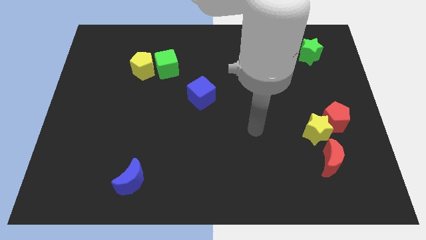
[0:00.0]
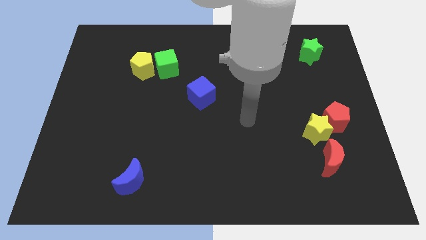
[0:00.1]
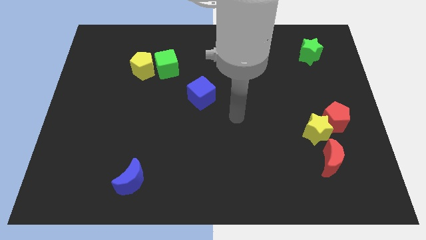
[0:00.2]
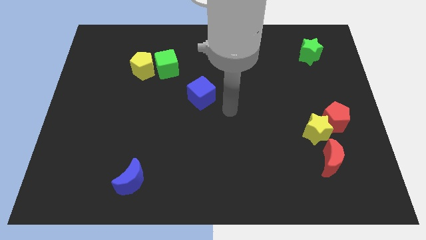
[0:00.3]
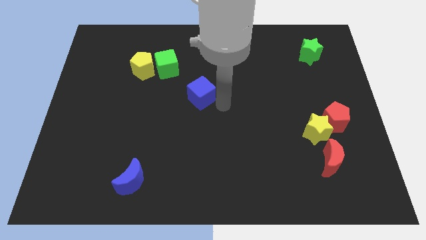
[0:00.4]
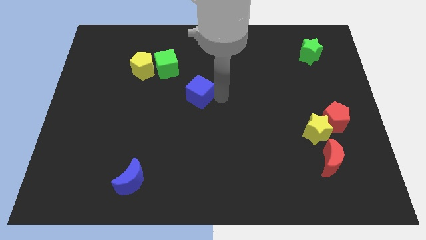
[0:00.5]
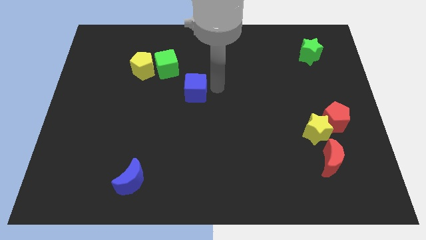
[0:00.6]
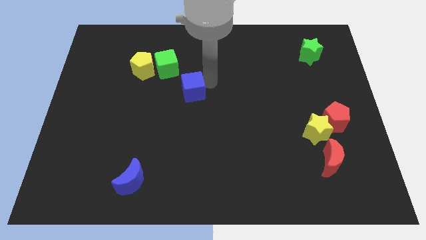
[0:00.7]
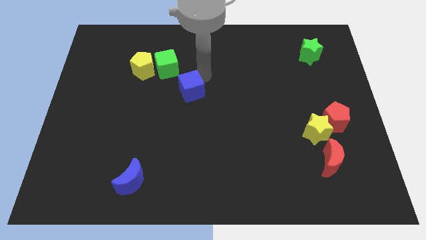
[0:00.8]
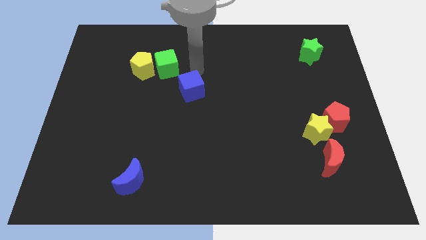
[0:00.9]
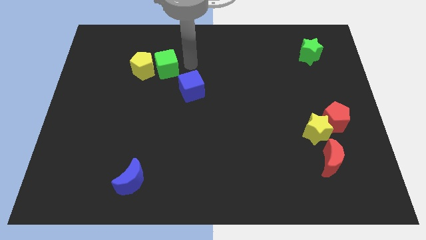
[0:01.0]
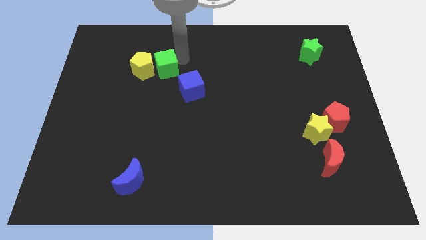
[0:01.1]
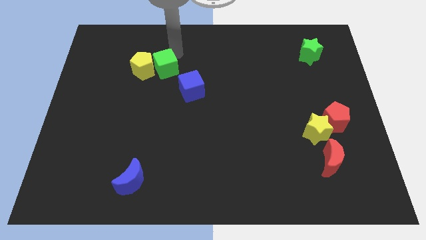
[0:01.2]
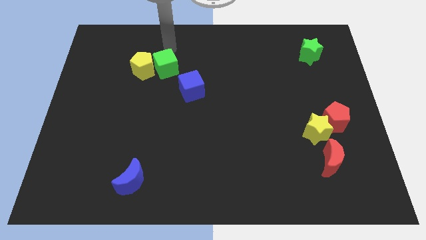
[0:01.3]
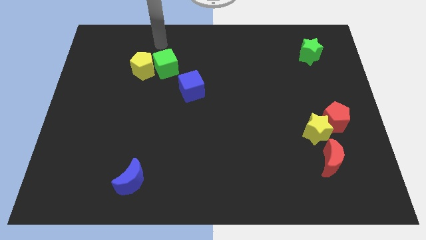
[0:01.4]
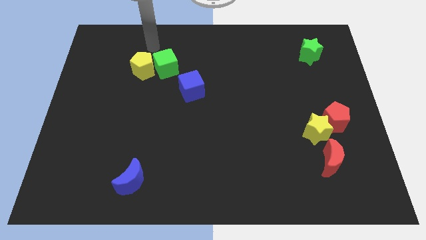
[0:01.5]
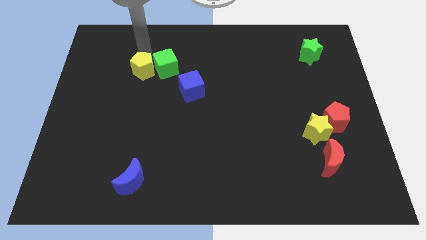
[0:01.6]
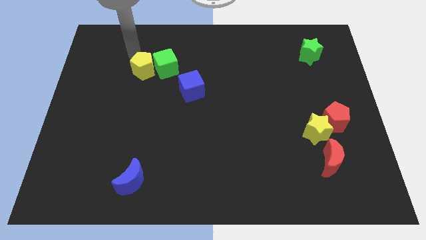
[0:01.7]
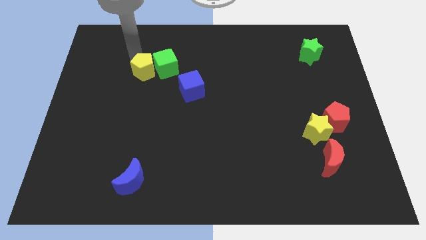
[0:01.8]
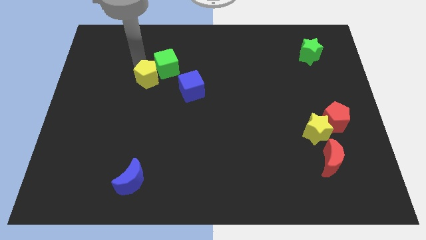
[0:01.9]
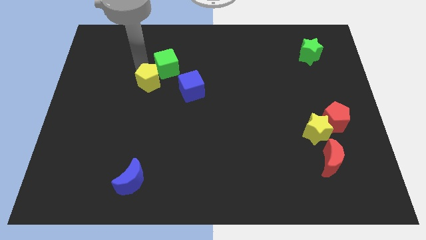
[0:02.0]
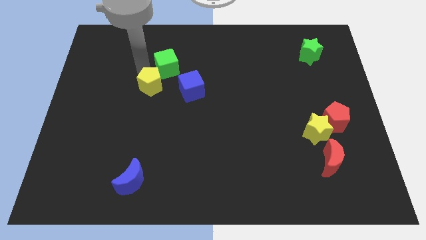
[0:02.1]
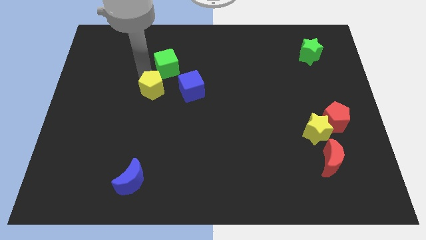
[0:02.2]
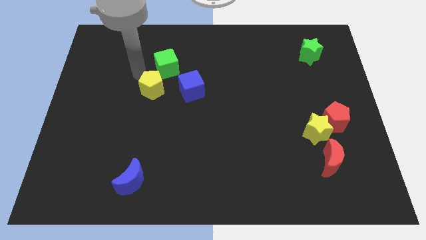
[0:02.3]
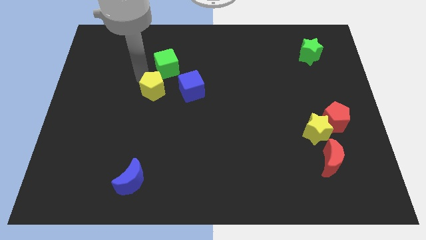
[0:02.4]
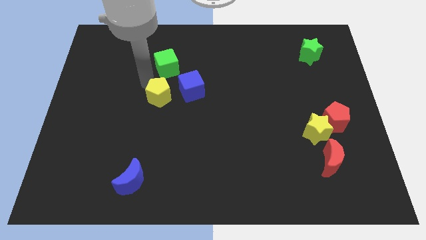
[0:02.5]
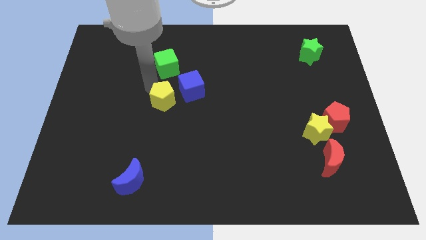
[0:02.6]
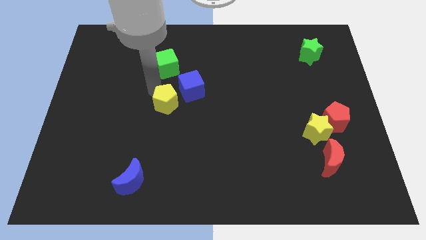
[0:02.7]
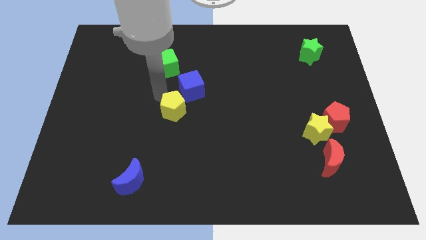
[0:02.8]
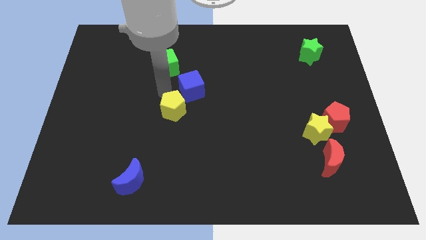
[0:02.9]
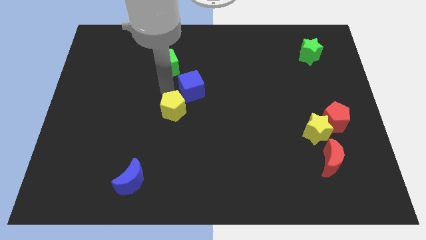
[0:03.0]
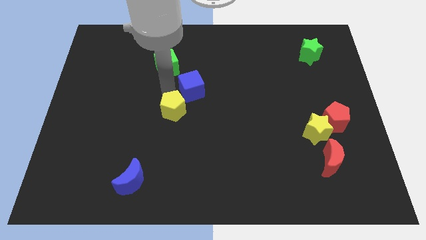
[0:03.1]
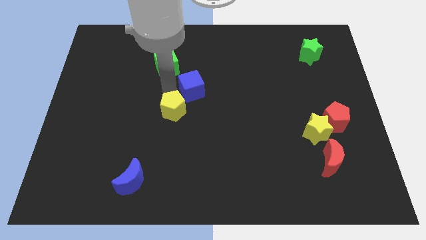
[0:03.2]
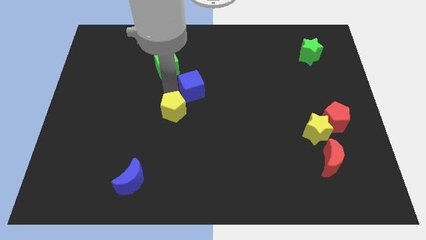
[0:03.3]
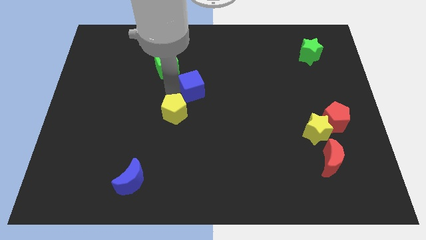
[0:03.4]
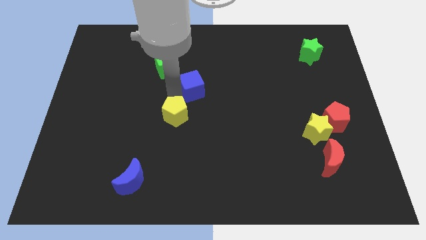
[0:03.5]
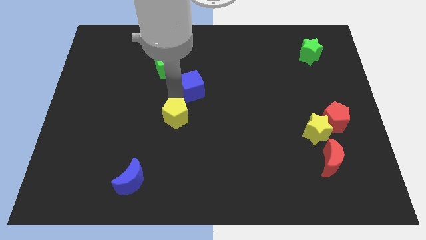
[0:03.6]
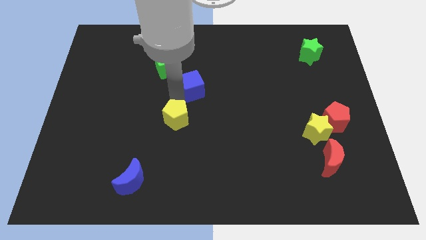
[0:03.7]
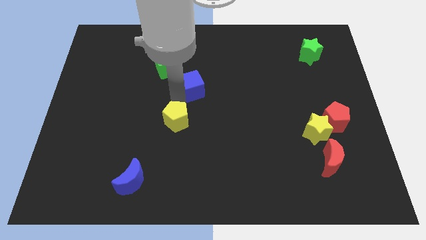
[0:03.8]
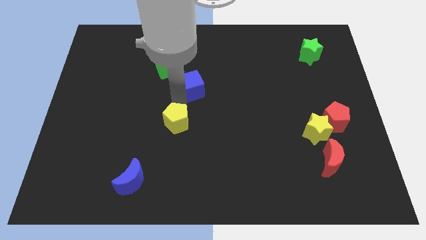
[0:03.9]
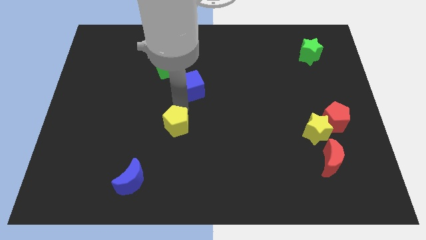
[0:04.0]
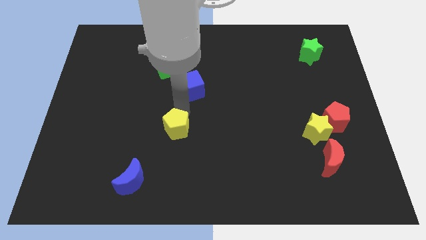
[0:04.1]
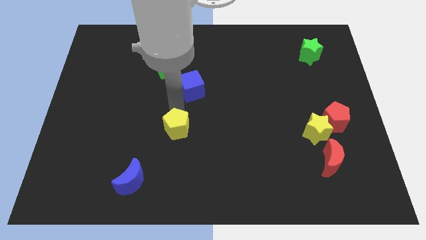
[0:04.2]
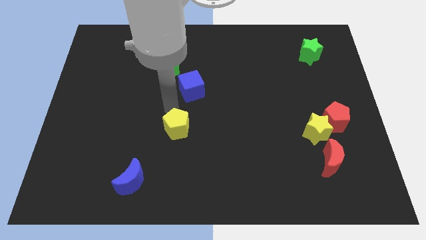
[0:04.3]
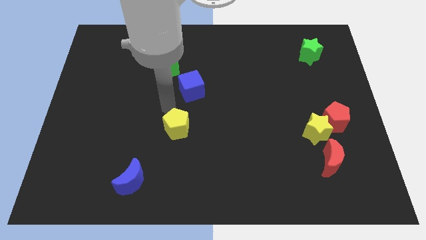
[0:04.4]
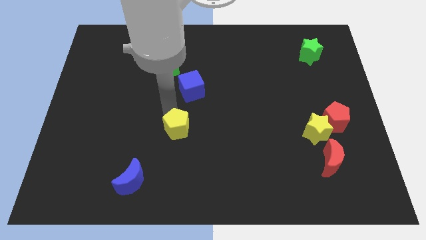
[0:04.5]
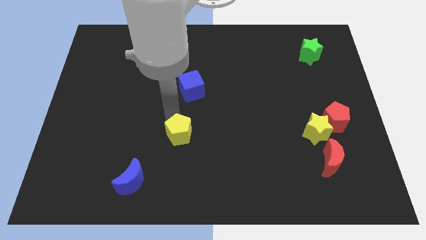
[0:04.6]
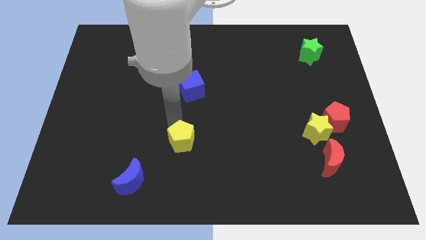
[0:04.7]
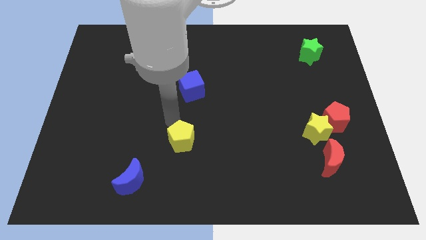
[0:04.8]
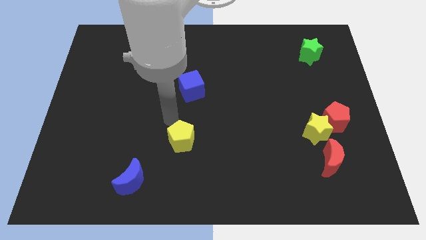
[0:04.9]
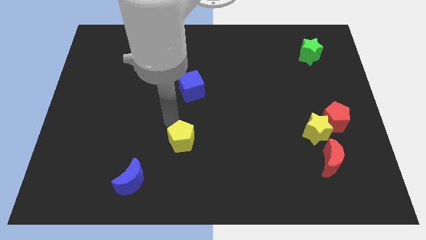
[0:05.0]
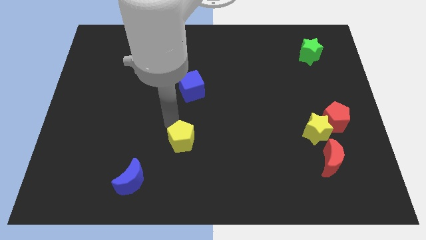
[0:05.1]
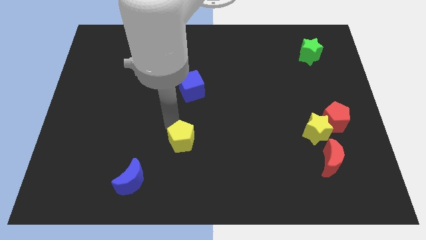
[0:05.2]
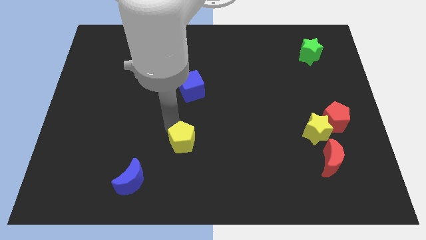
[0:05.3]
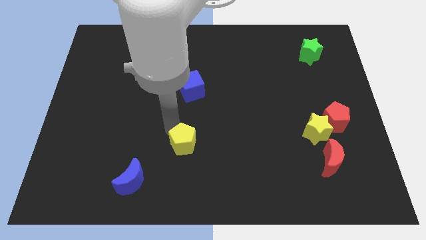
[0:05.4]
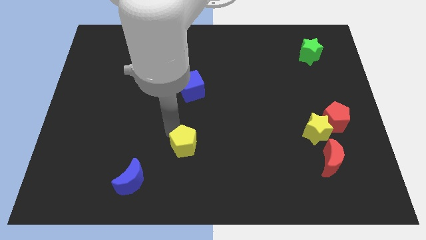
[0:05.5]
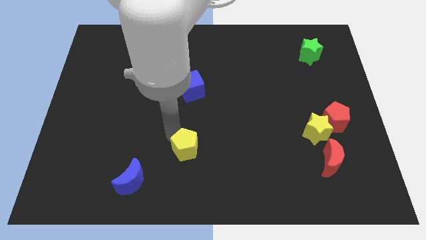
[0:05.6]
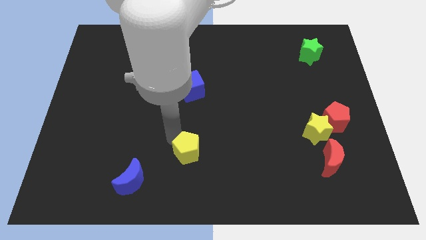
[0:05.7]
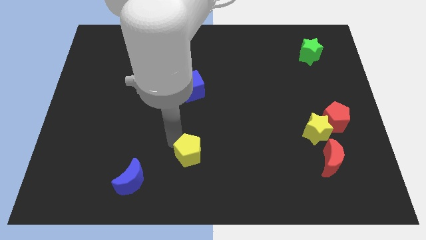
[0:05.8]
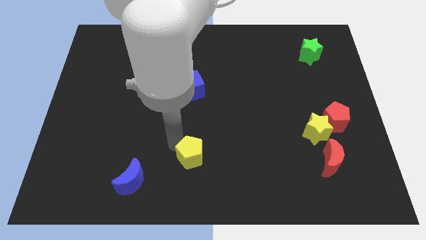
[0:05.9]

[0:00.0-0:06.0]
slide the yellow pentagon to the bottom
